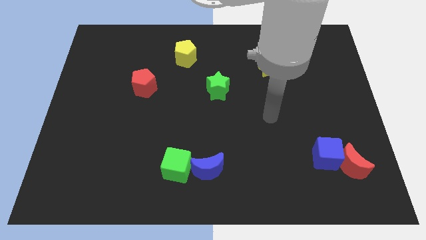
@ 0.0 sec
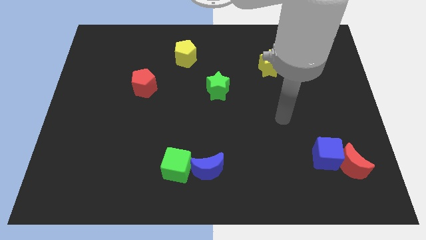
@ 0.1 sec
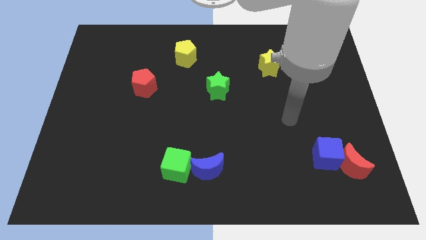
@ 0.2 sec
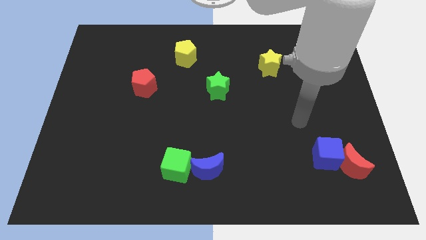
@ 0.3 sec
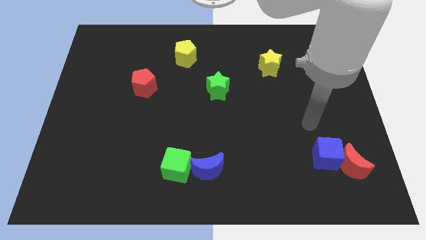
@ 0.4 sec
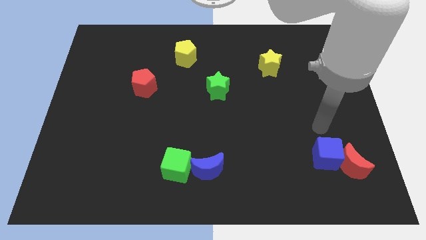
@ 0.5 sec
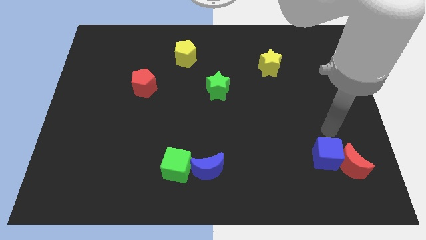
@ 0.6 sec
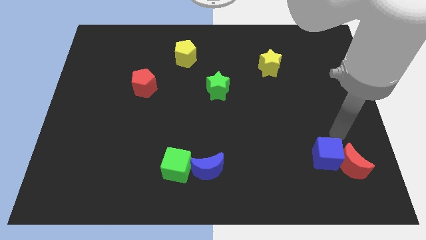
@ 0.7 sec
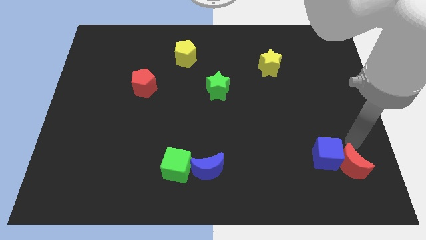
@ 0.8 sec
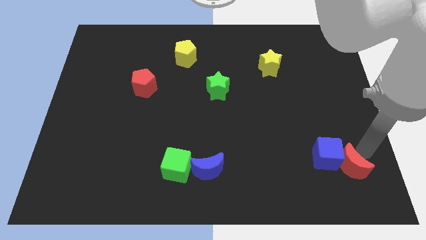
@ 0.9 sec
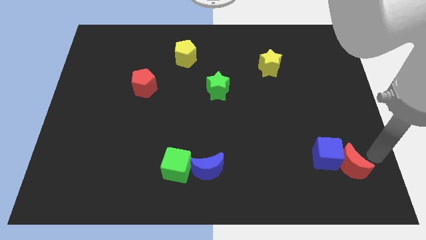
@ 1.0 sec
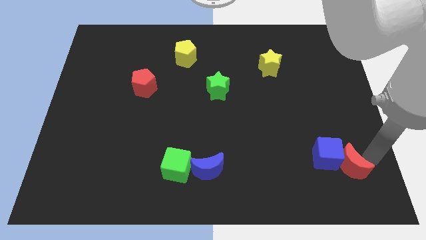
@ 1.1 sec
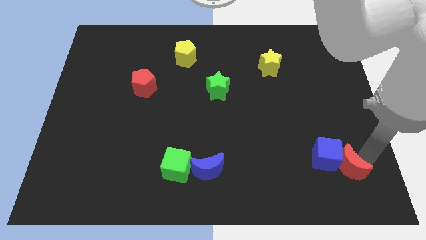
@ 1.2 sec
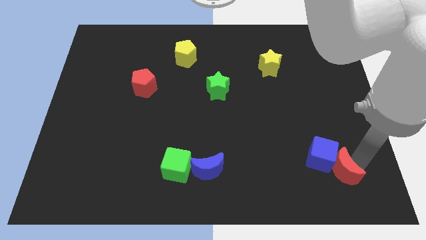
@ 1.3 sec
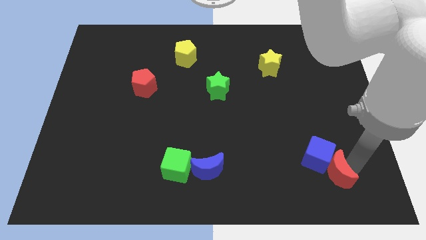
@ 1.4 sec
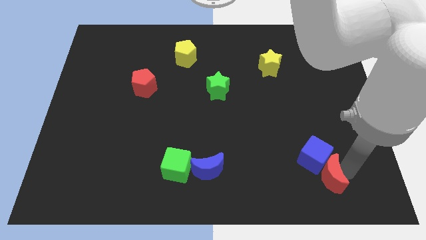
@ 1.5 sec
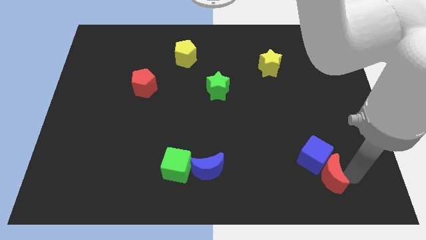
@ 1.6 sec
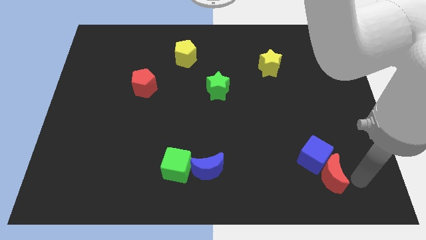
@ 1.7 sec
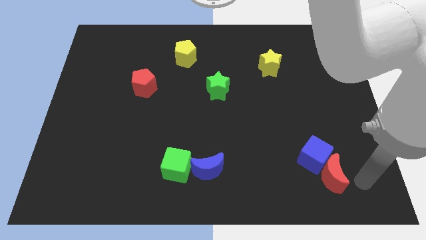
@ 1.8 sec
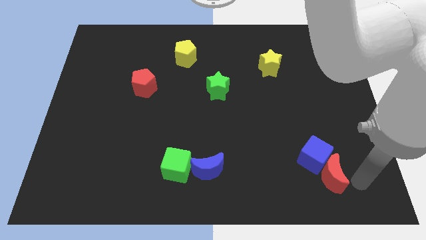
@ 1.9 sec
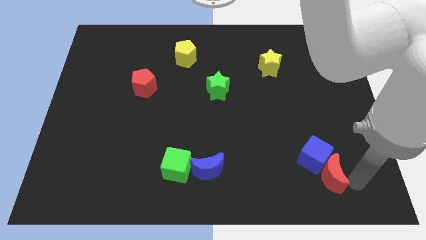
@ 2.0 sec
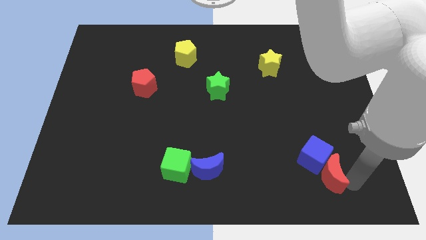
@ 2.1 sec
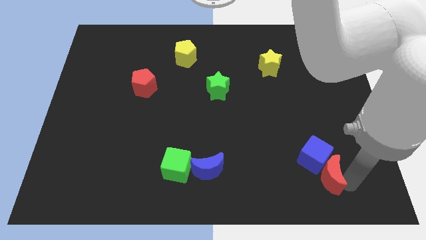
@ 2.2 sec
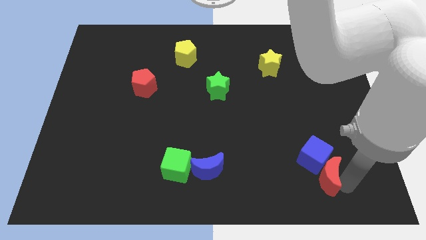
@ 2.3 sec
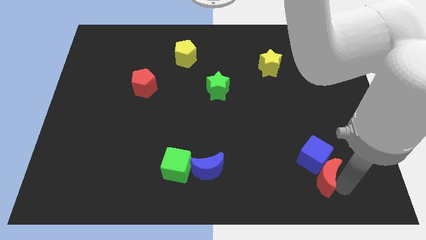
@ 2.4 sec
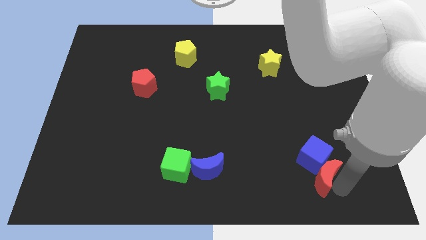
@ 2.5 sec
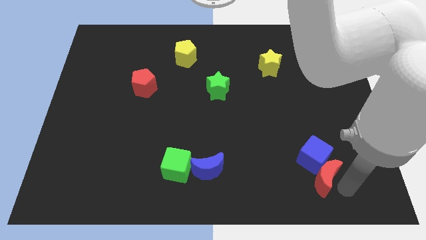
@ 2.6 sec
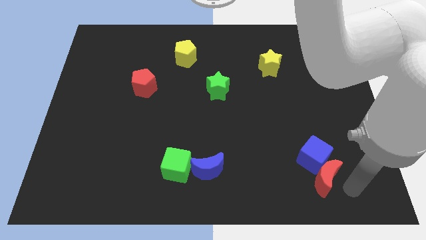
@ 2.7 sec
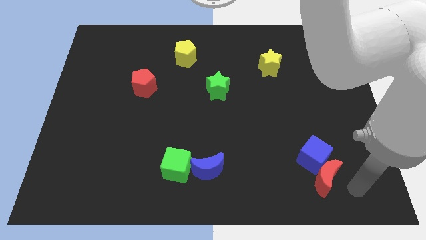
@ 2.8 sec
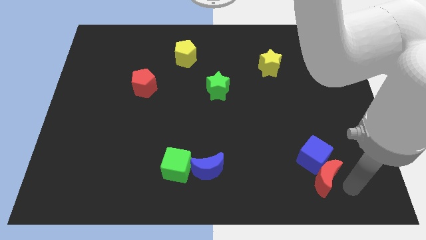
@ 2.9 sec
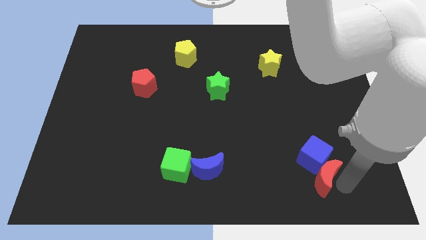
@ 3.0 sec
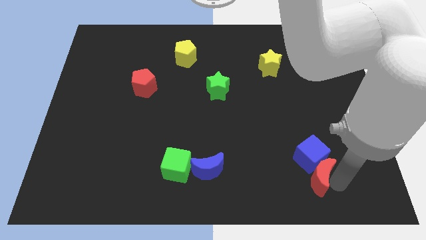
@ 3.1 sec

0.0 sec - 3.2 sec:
slide the red moon slightly to the left

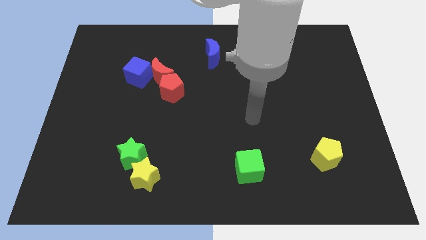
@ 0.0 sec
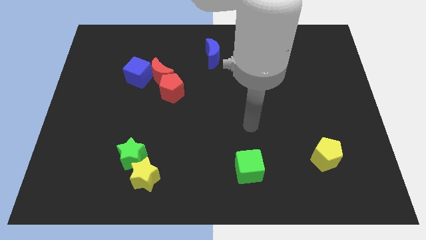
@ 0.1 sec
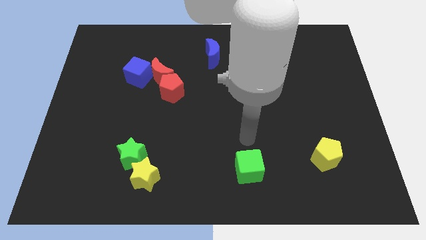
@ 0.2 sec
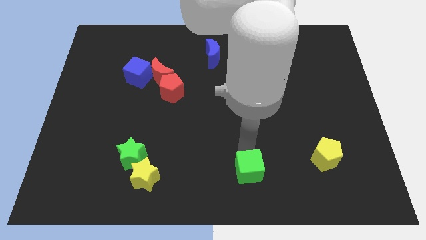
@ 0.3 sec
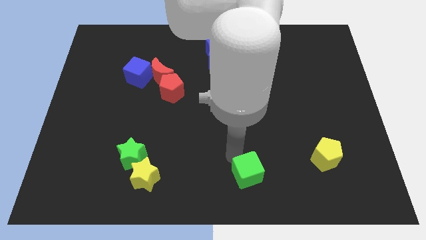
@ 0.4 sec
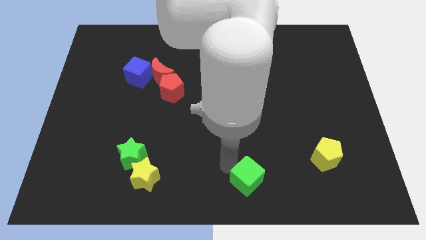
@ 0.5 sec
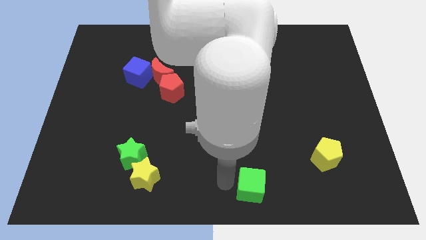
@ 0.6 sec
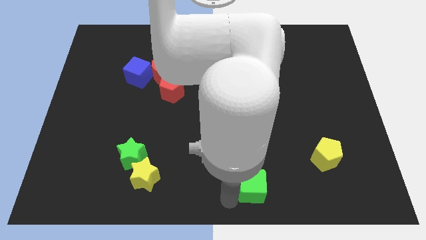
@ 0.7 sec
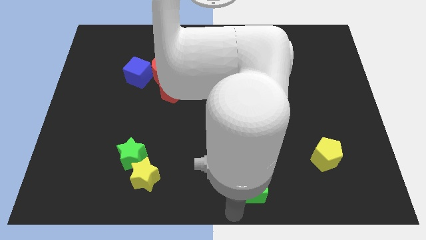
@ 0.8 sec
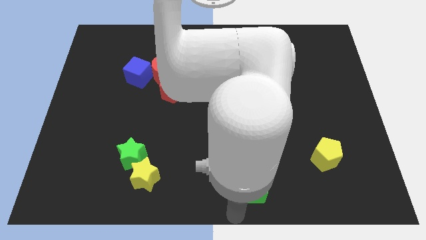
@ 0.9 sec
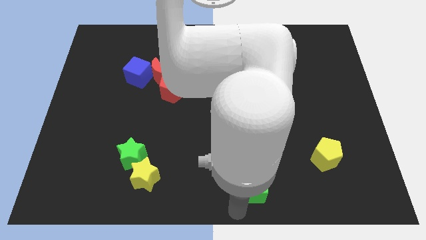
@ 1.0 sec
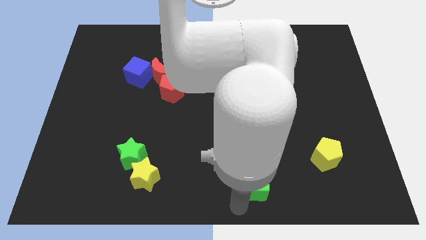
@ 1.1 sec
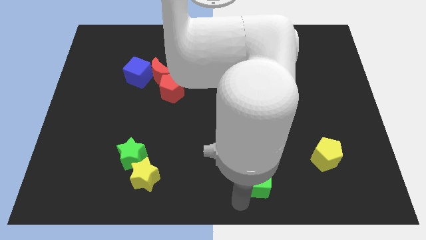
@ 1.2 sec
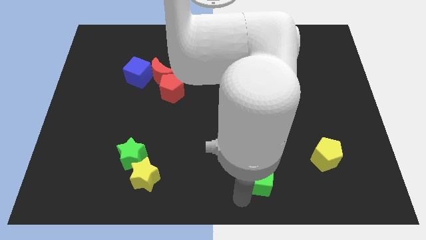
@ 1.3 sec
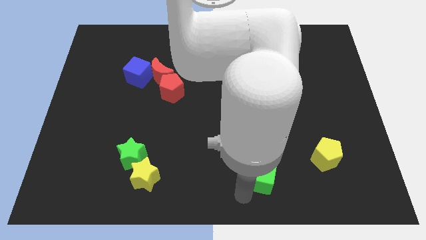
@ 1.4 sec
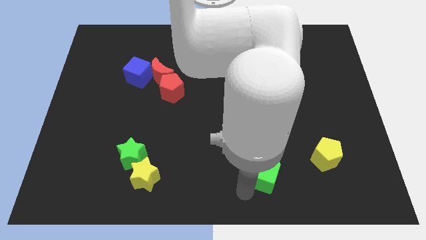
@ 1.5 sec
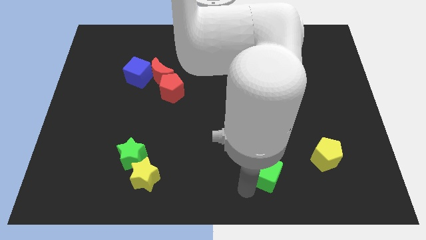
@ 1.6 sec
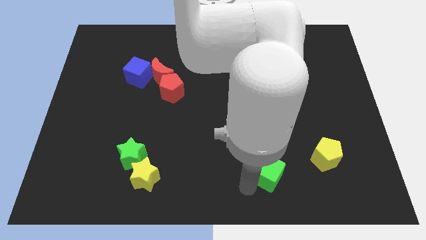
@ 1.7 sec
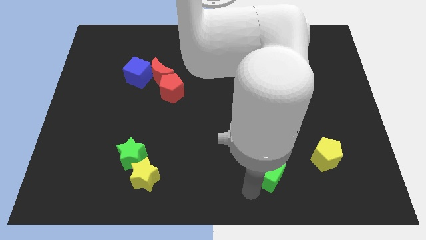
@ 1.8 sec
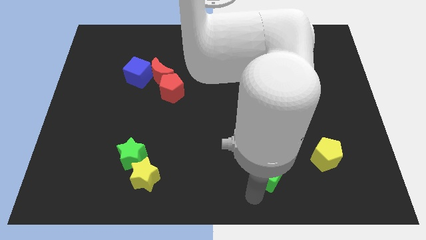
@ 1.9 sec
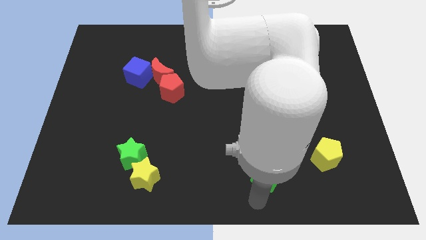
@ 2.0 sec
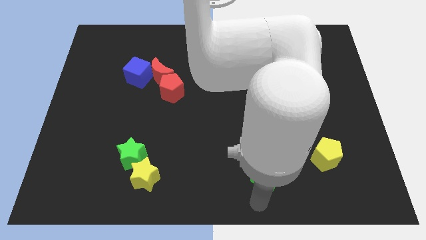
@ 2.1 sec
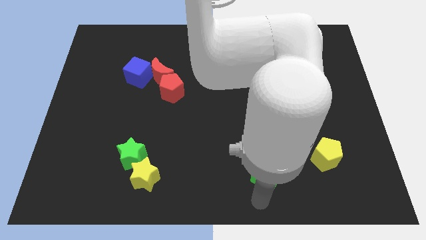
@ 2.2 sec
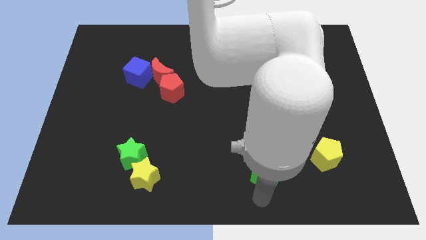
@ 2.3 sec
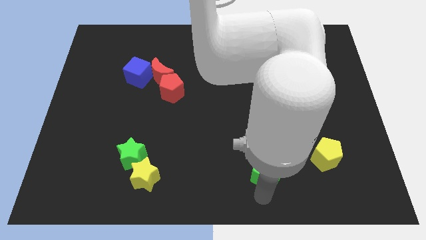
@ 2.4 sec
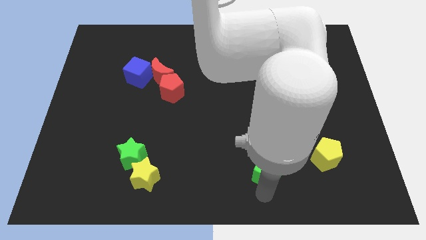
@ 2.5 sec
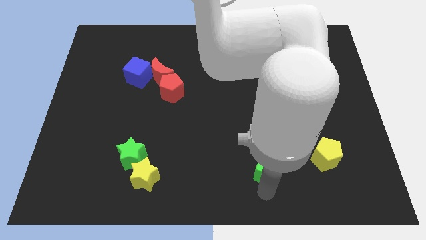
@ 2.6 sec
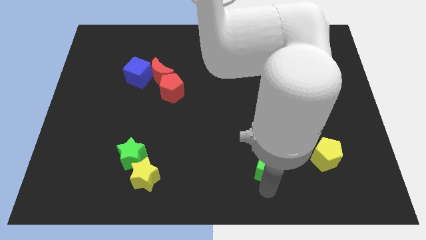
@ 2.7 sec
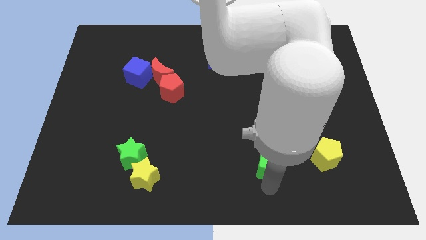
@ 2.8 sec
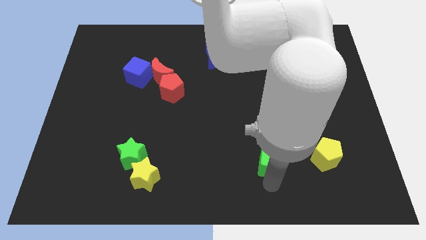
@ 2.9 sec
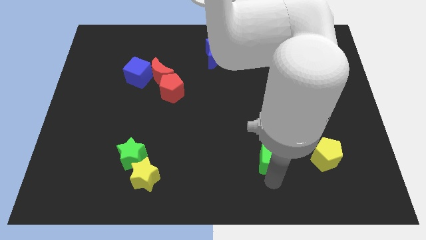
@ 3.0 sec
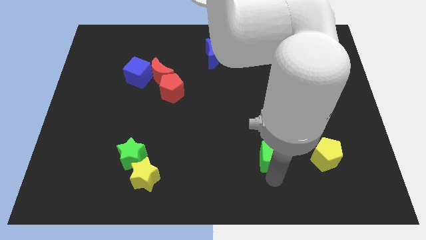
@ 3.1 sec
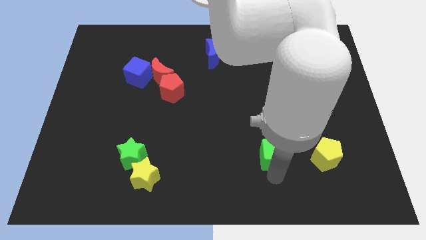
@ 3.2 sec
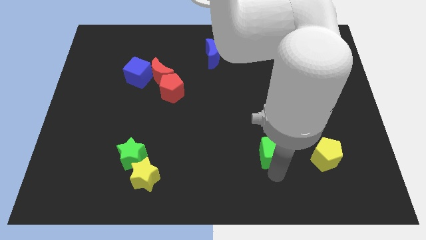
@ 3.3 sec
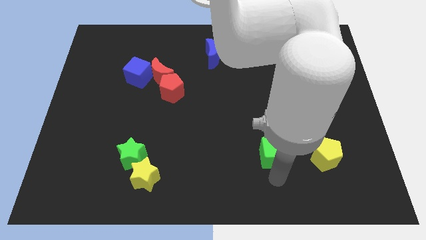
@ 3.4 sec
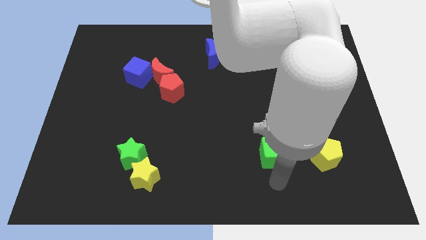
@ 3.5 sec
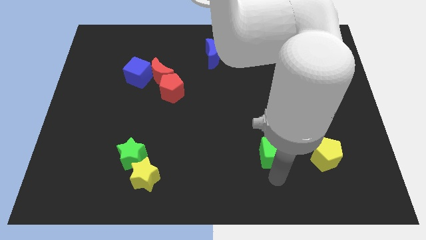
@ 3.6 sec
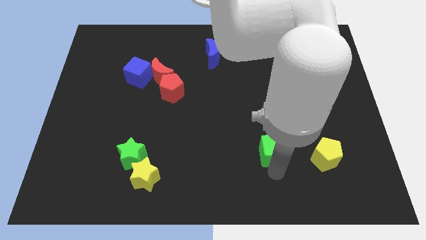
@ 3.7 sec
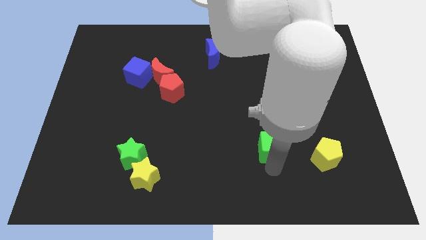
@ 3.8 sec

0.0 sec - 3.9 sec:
slightly push the green cube diagonally up and right

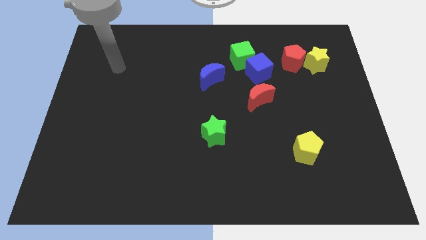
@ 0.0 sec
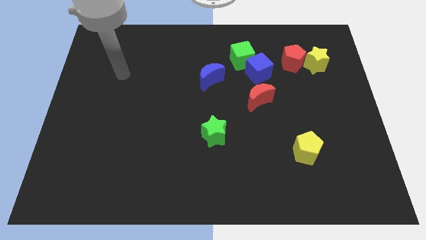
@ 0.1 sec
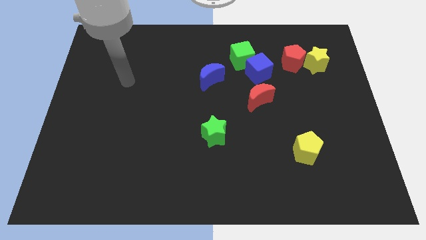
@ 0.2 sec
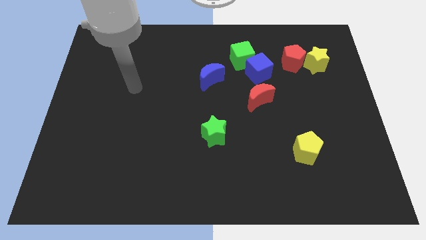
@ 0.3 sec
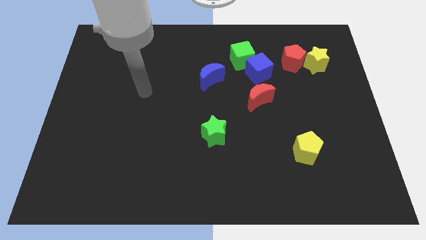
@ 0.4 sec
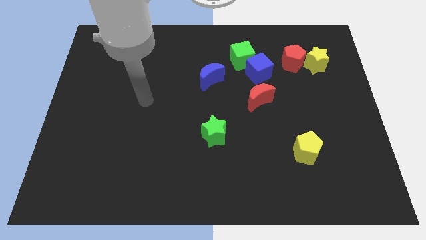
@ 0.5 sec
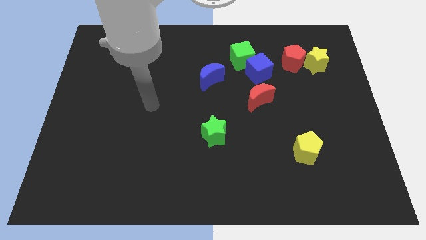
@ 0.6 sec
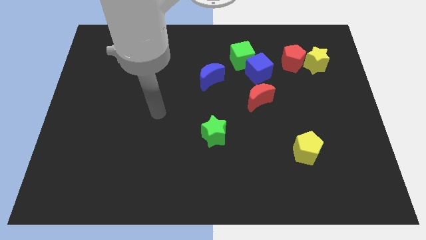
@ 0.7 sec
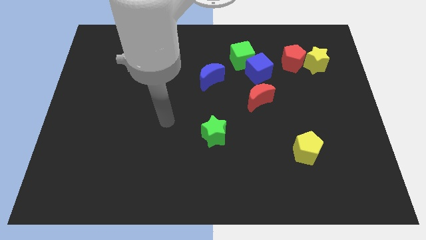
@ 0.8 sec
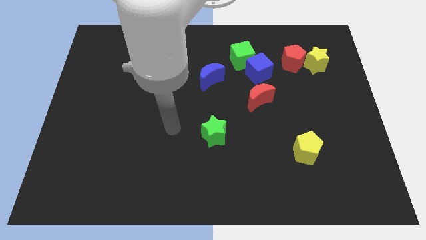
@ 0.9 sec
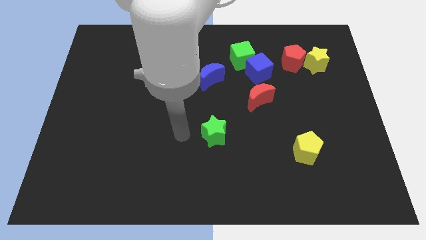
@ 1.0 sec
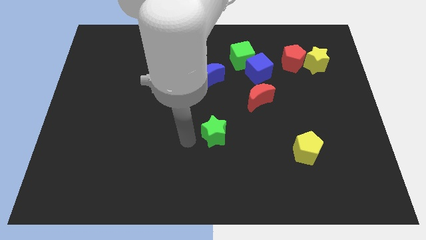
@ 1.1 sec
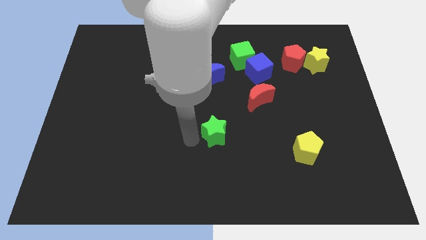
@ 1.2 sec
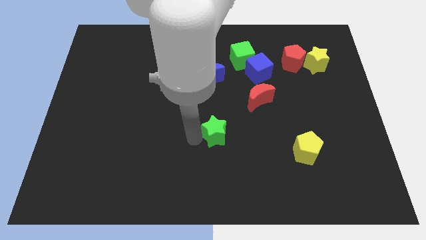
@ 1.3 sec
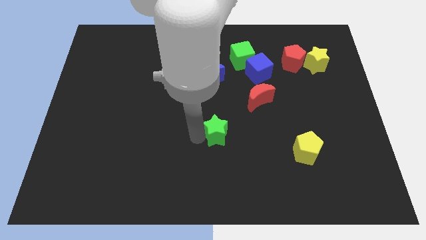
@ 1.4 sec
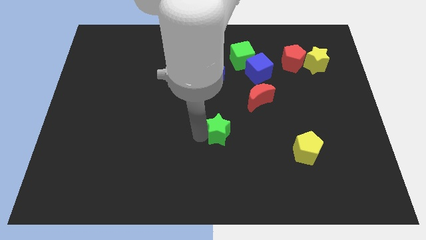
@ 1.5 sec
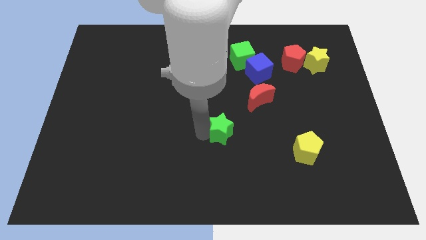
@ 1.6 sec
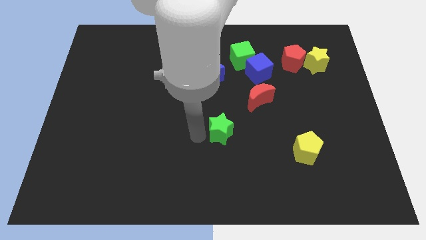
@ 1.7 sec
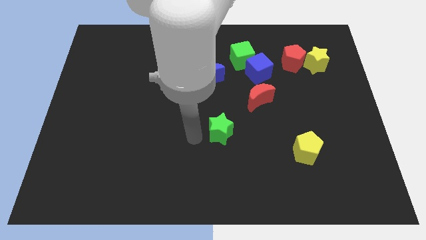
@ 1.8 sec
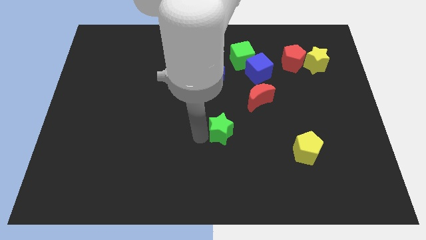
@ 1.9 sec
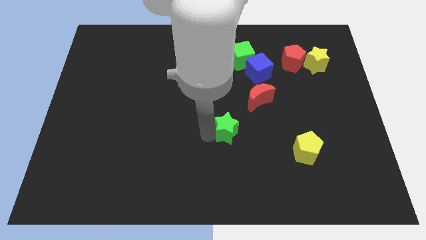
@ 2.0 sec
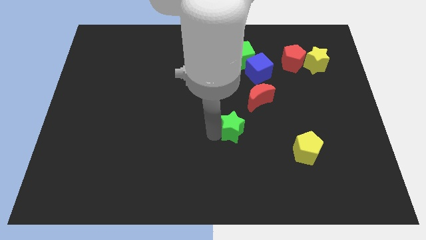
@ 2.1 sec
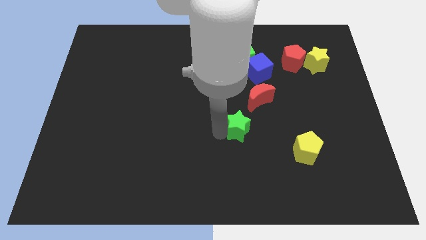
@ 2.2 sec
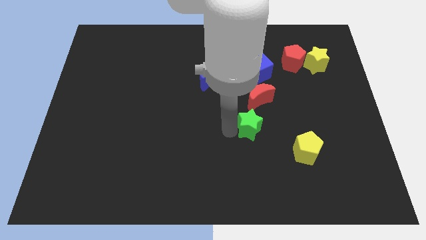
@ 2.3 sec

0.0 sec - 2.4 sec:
push the green star right somewhat
